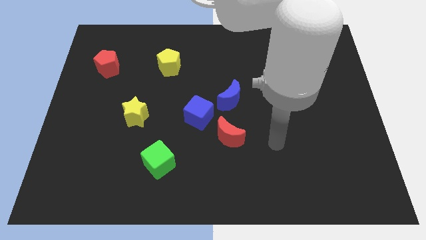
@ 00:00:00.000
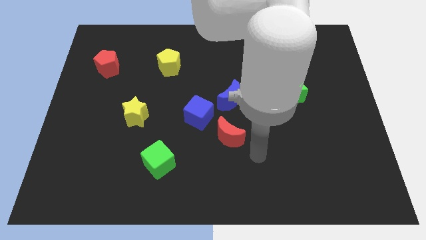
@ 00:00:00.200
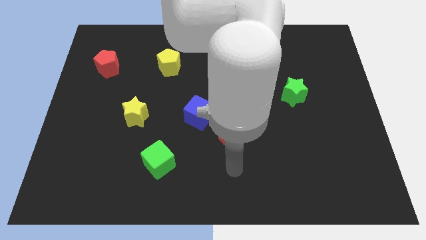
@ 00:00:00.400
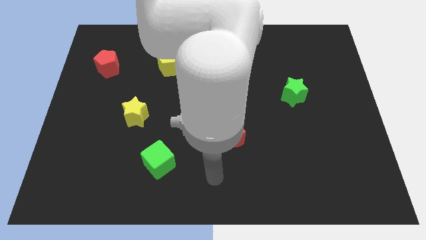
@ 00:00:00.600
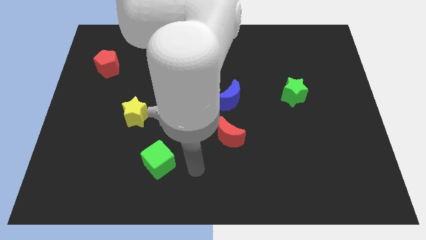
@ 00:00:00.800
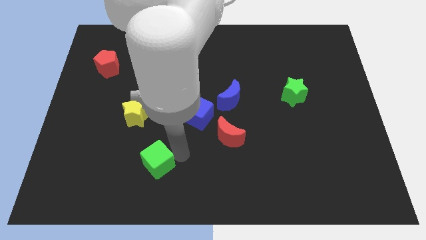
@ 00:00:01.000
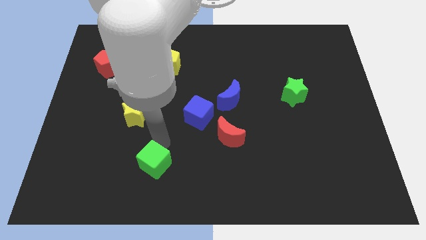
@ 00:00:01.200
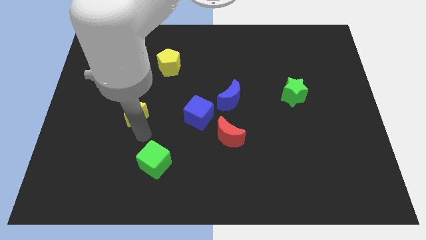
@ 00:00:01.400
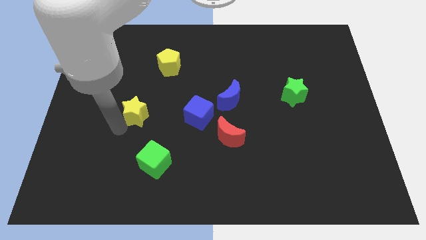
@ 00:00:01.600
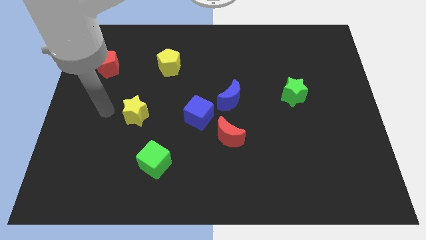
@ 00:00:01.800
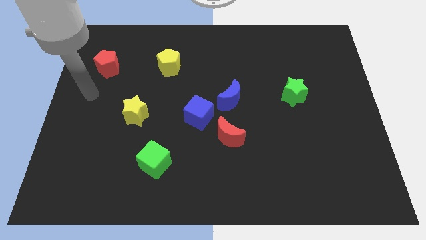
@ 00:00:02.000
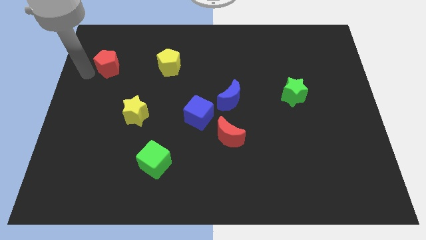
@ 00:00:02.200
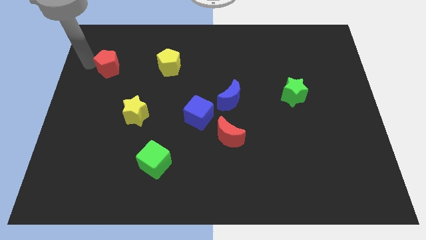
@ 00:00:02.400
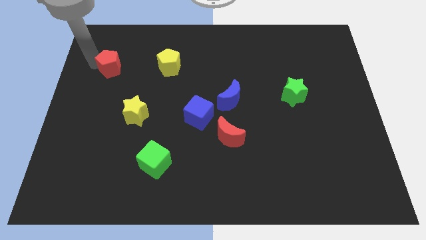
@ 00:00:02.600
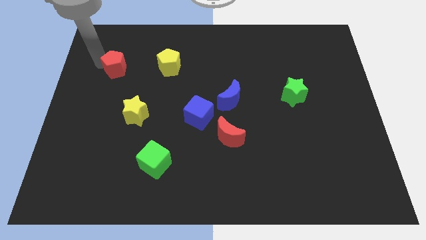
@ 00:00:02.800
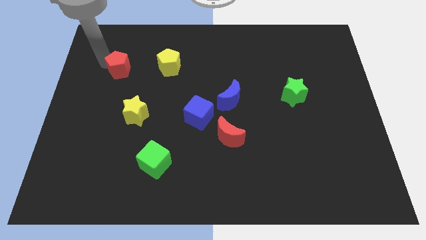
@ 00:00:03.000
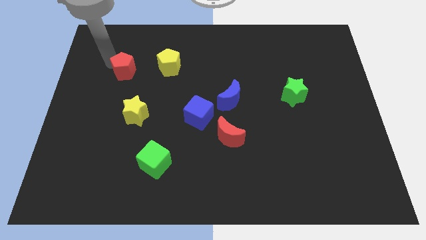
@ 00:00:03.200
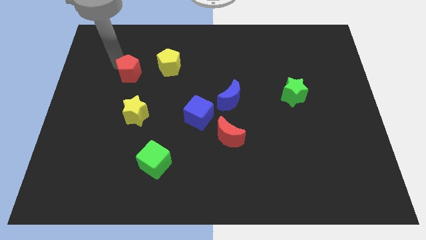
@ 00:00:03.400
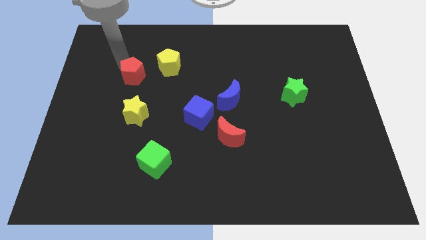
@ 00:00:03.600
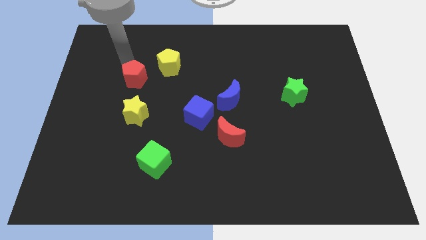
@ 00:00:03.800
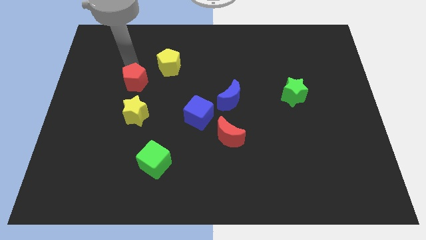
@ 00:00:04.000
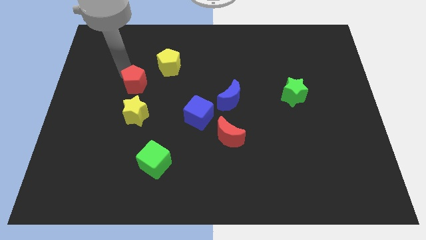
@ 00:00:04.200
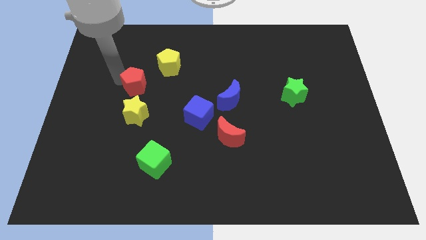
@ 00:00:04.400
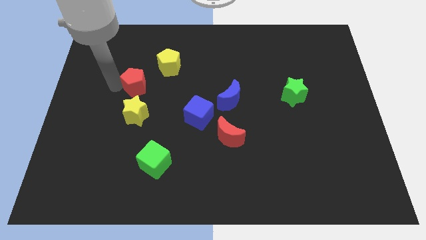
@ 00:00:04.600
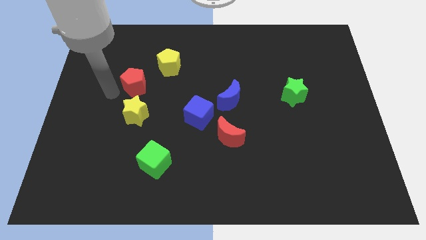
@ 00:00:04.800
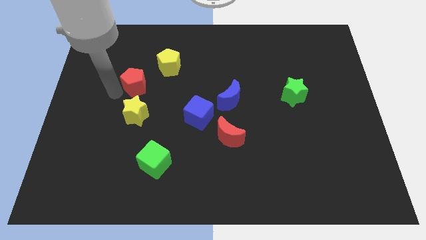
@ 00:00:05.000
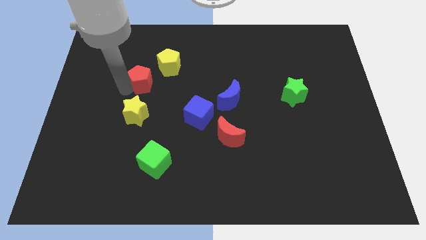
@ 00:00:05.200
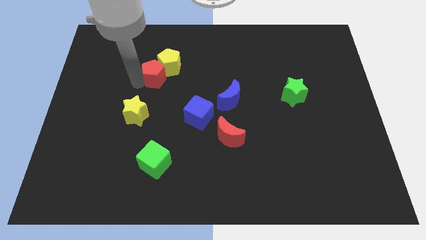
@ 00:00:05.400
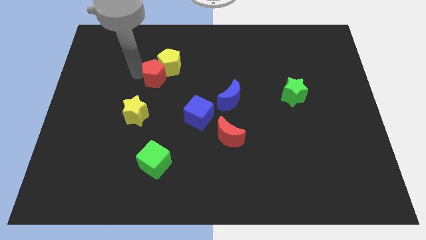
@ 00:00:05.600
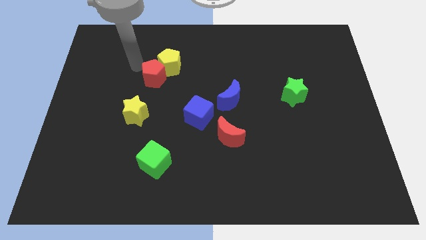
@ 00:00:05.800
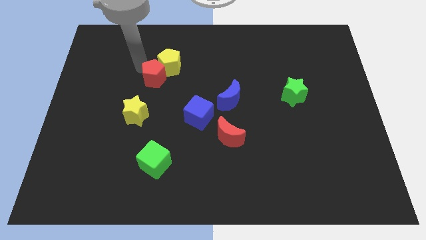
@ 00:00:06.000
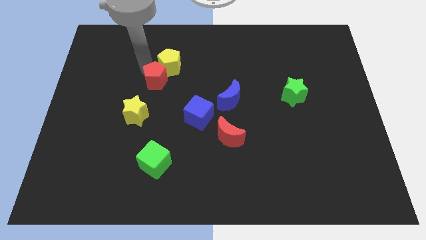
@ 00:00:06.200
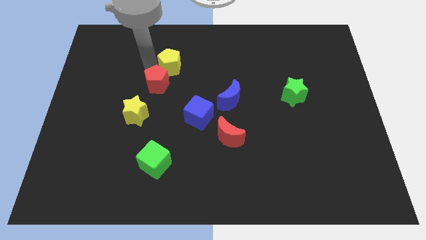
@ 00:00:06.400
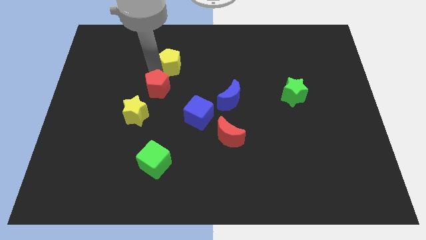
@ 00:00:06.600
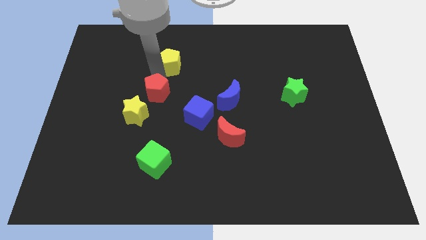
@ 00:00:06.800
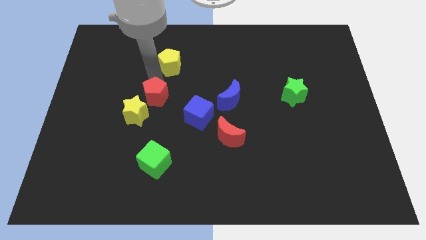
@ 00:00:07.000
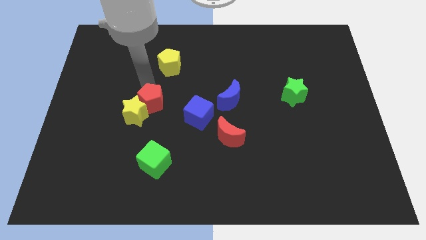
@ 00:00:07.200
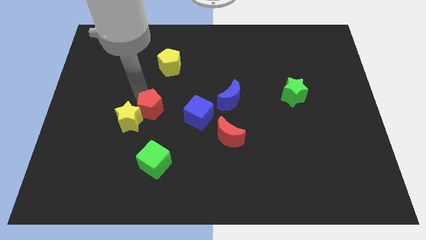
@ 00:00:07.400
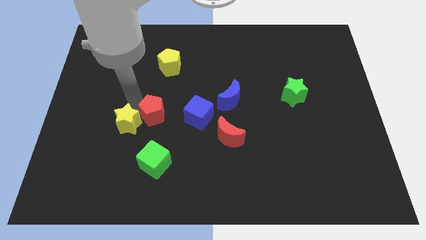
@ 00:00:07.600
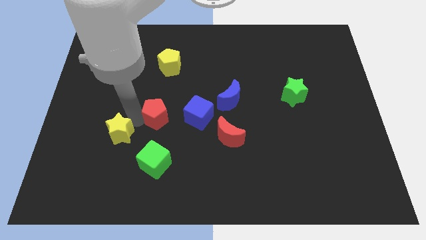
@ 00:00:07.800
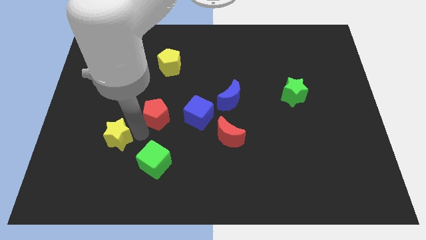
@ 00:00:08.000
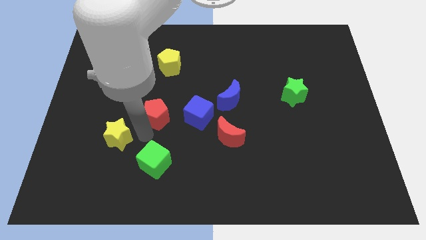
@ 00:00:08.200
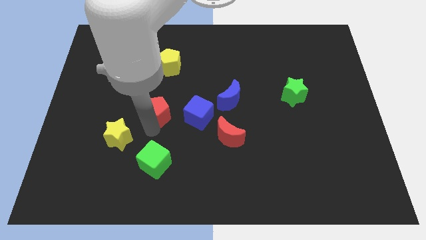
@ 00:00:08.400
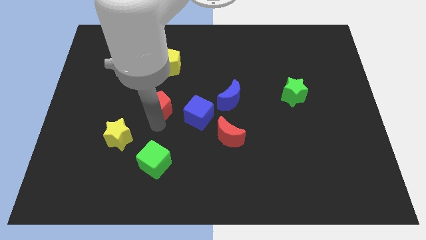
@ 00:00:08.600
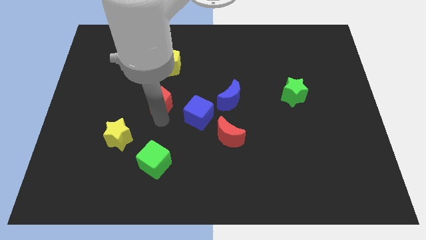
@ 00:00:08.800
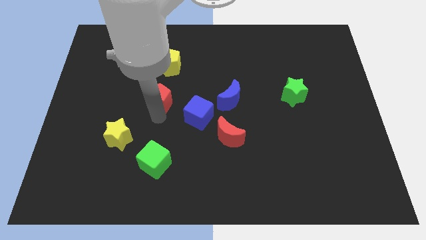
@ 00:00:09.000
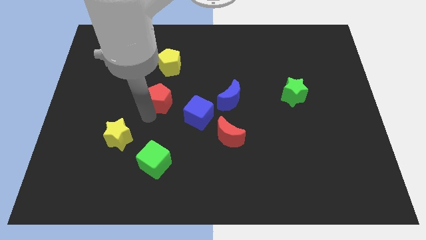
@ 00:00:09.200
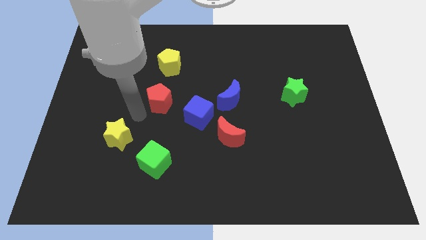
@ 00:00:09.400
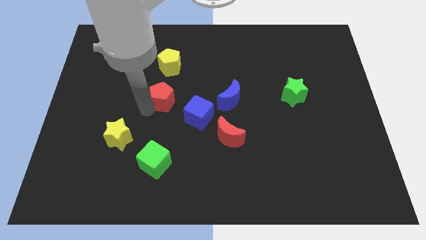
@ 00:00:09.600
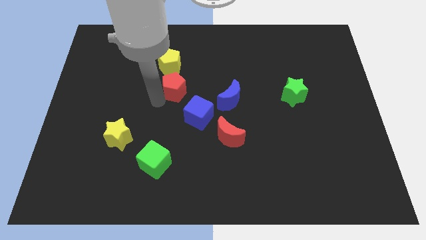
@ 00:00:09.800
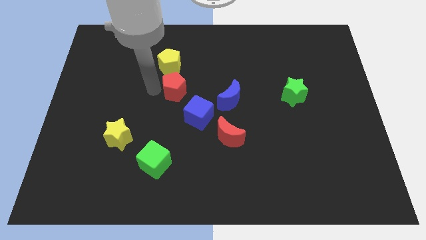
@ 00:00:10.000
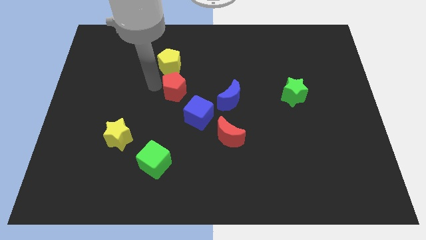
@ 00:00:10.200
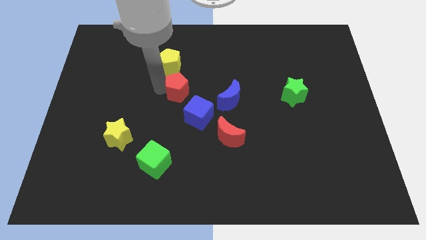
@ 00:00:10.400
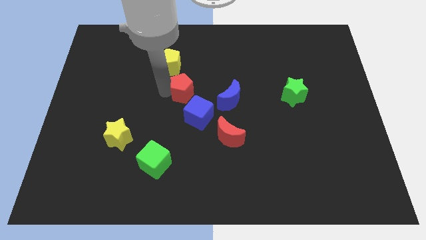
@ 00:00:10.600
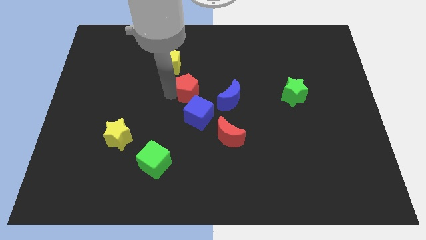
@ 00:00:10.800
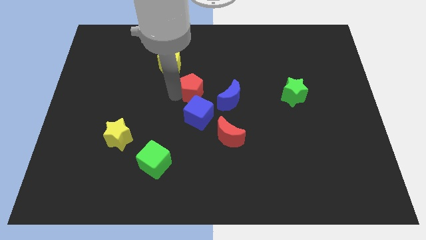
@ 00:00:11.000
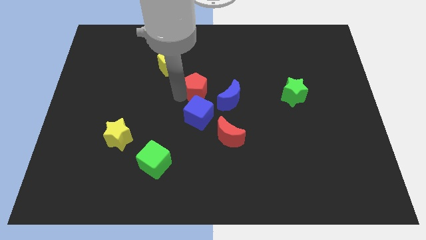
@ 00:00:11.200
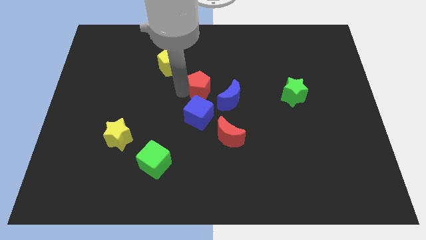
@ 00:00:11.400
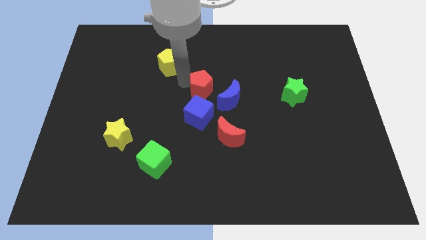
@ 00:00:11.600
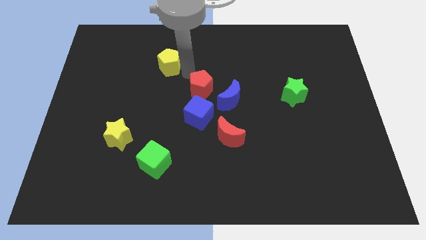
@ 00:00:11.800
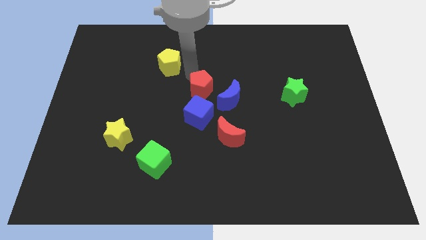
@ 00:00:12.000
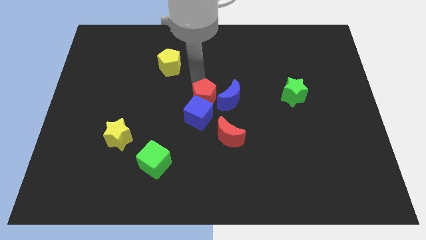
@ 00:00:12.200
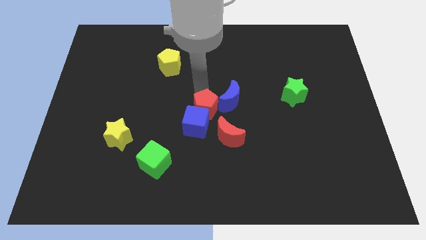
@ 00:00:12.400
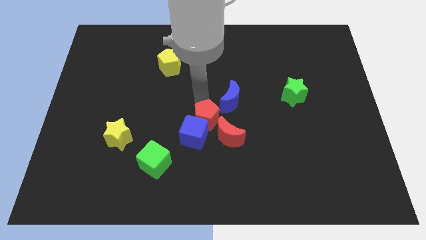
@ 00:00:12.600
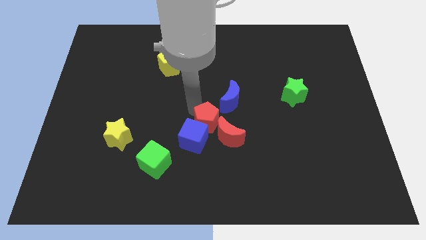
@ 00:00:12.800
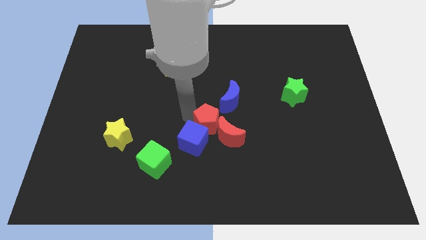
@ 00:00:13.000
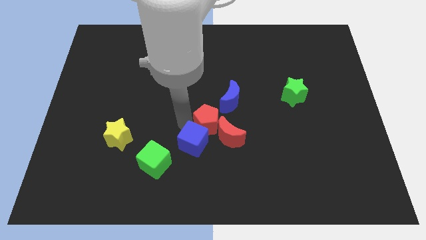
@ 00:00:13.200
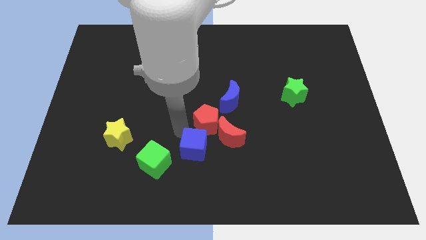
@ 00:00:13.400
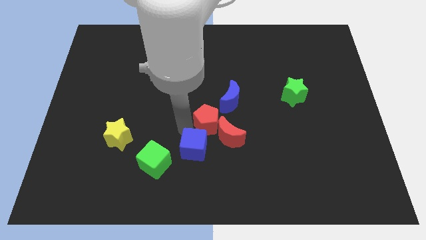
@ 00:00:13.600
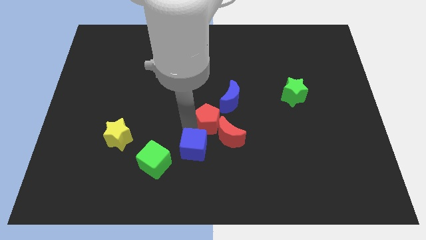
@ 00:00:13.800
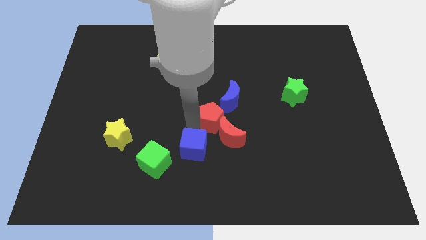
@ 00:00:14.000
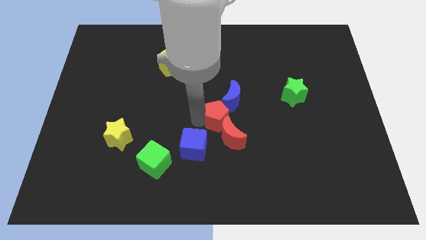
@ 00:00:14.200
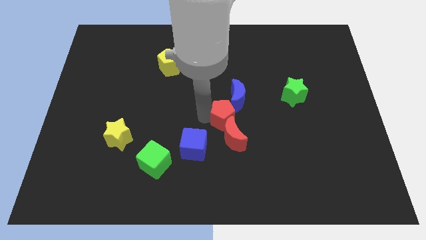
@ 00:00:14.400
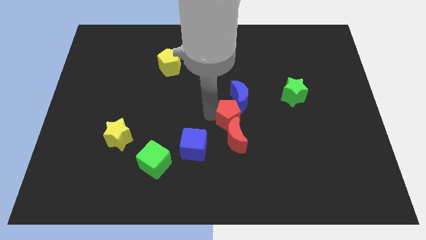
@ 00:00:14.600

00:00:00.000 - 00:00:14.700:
put the red pentagon to the top right side of the red moon
